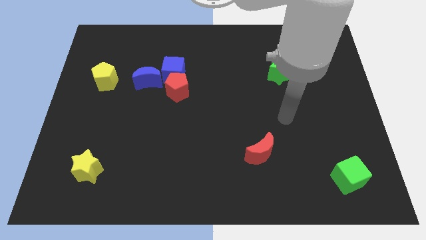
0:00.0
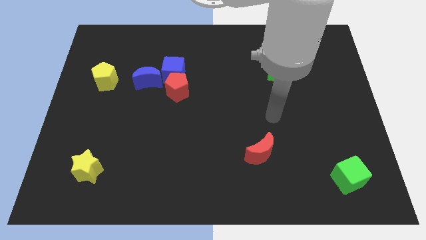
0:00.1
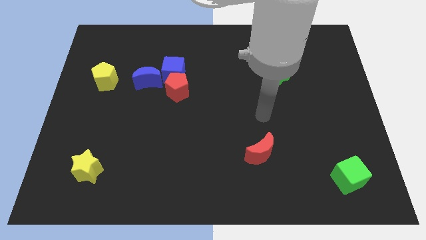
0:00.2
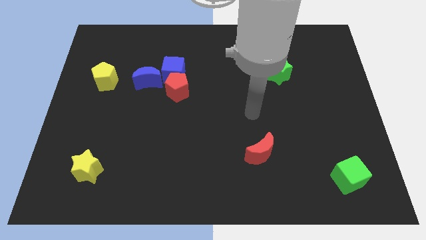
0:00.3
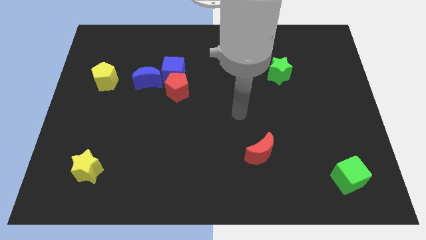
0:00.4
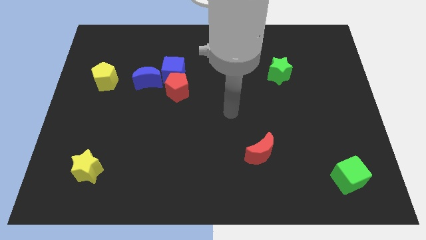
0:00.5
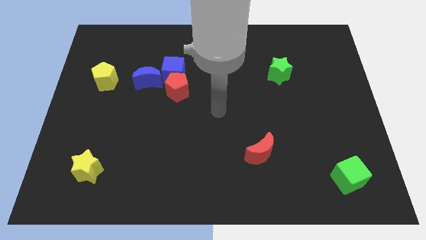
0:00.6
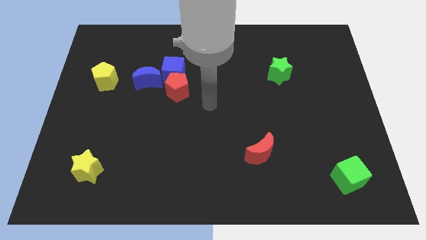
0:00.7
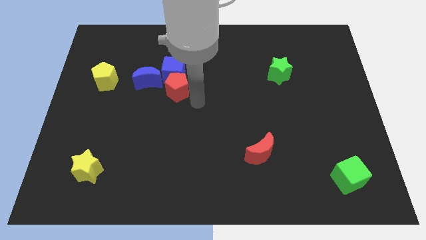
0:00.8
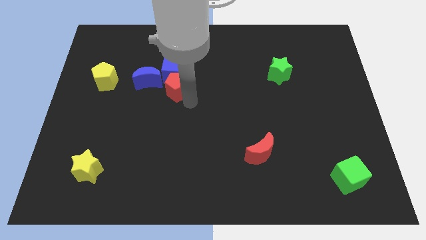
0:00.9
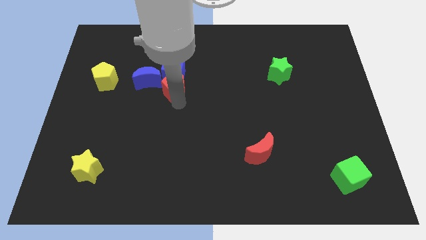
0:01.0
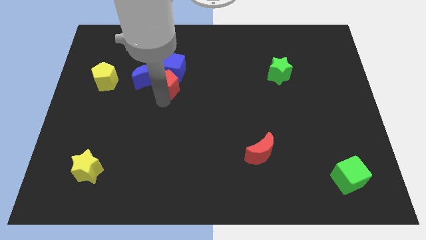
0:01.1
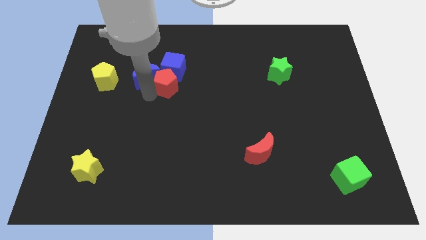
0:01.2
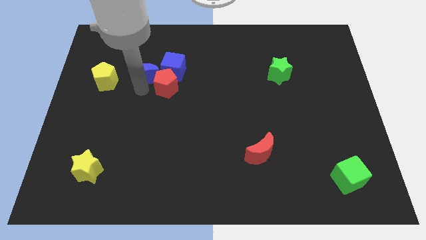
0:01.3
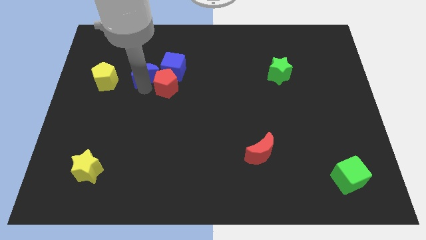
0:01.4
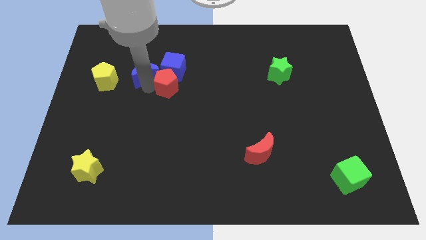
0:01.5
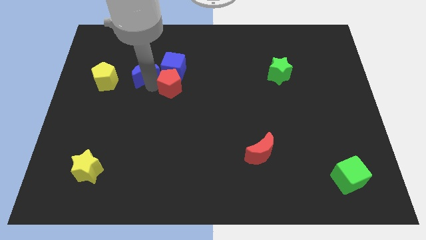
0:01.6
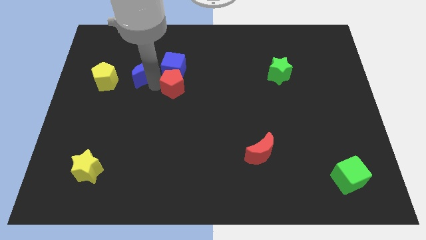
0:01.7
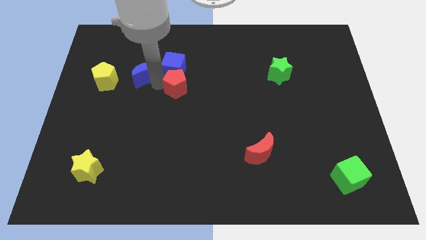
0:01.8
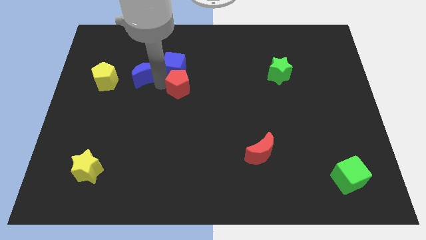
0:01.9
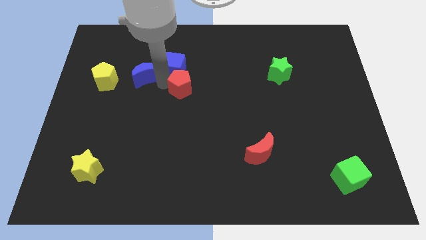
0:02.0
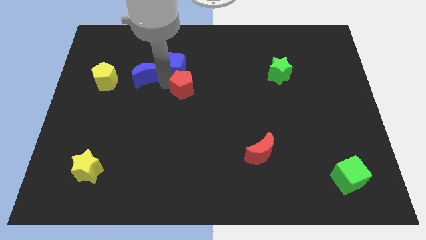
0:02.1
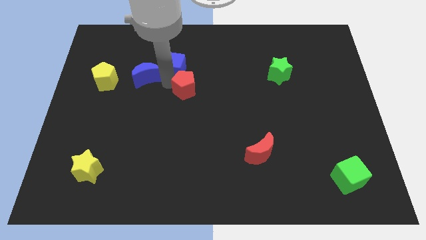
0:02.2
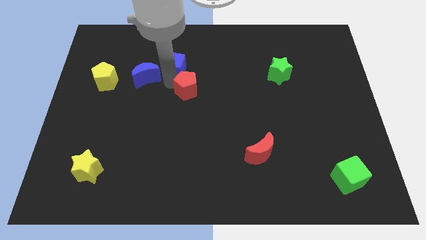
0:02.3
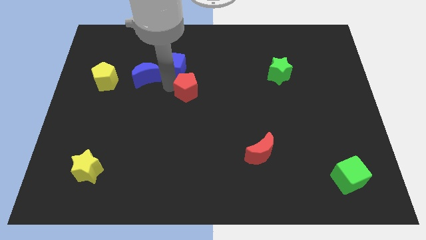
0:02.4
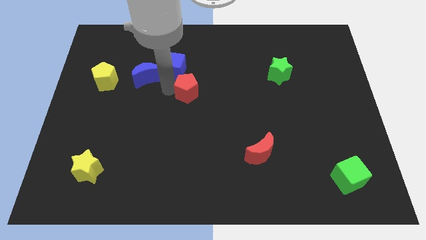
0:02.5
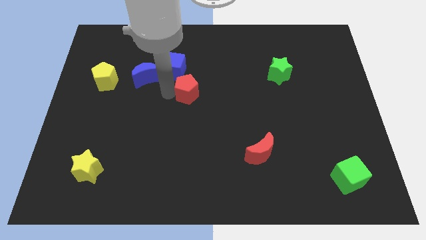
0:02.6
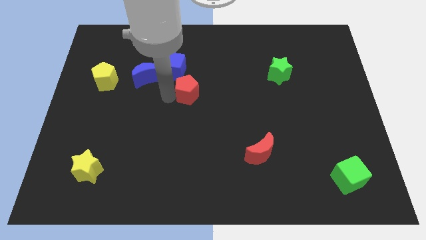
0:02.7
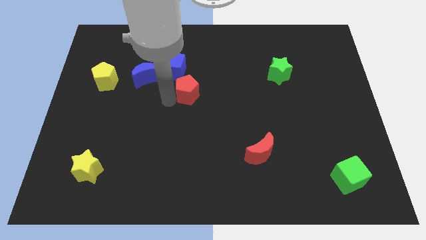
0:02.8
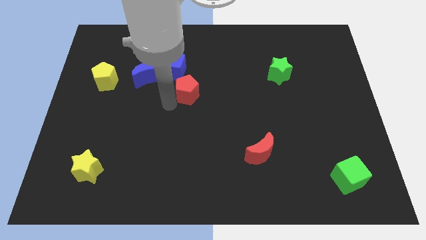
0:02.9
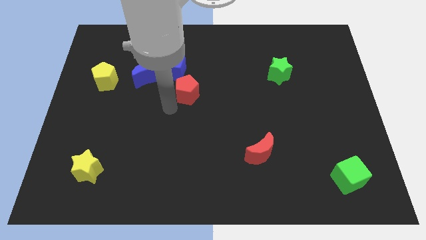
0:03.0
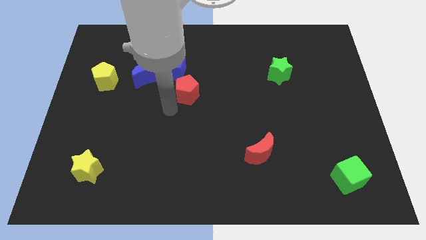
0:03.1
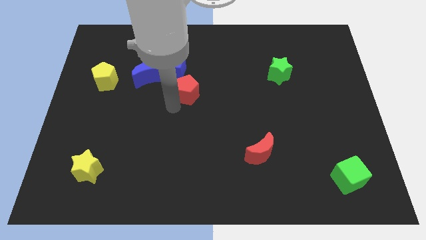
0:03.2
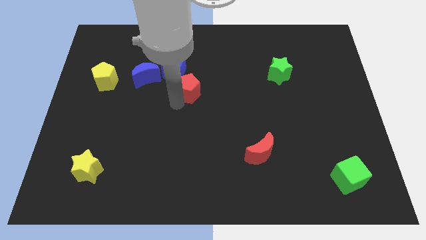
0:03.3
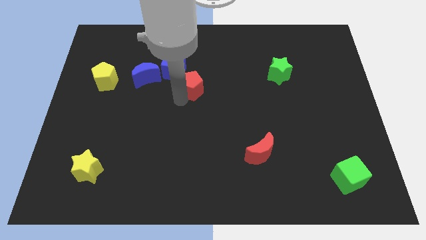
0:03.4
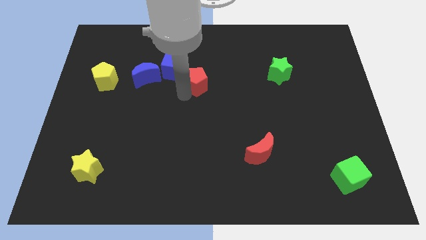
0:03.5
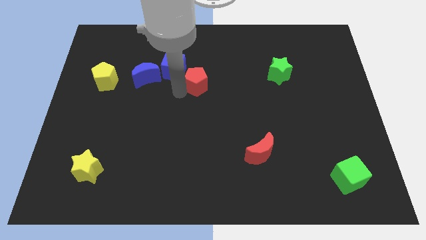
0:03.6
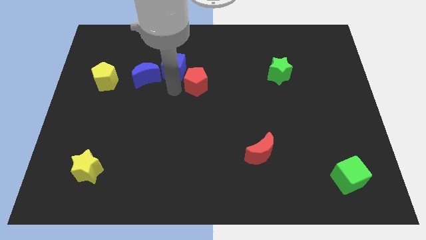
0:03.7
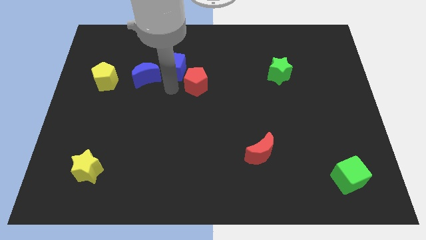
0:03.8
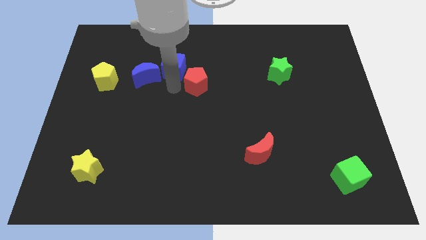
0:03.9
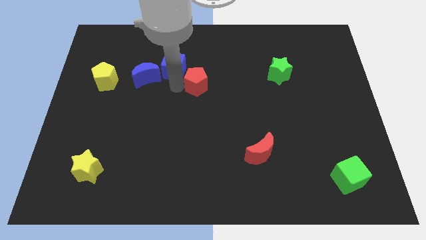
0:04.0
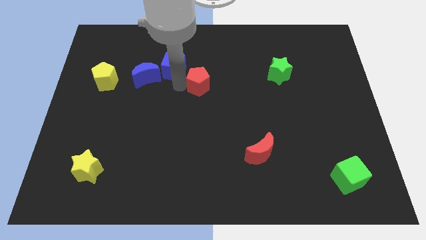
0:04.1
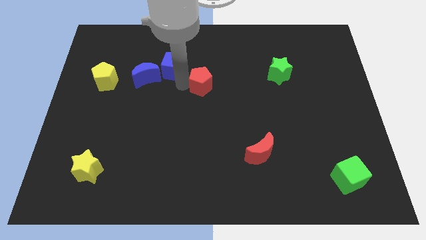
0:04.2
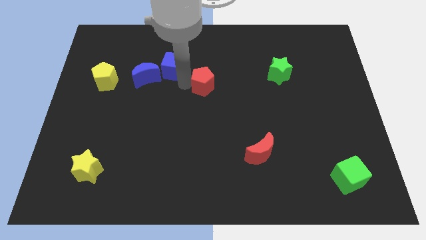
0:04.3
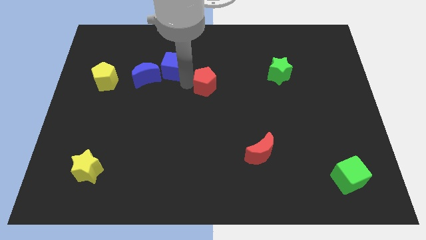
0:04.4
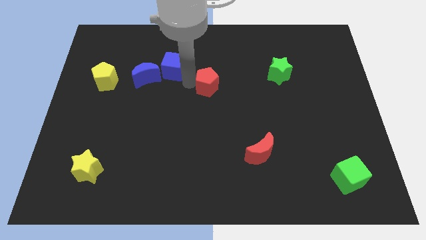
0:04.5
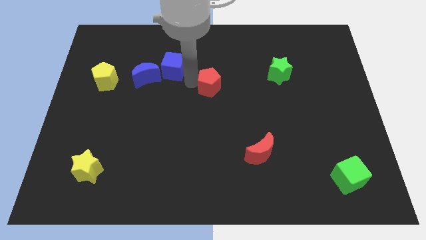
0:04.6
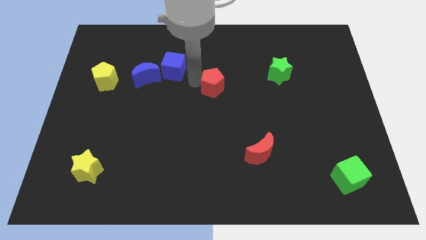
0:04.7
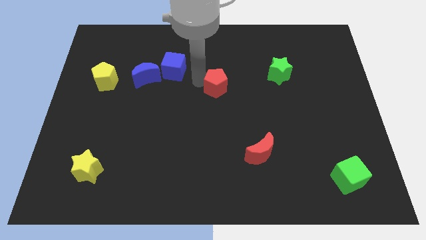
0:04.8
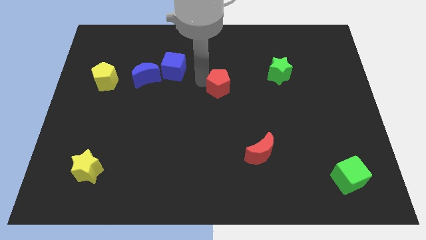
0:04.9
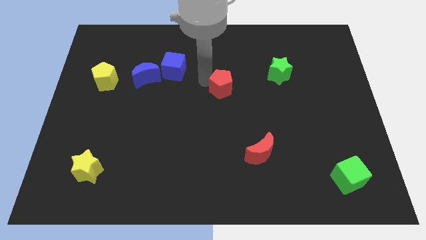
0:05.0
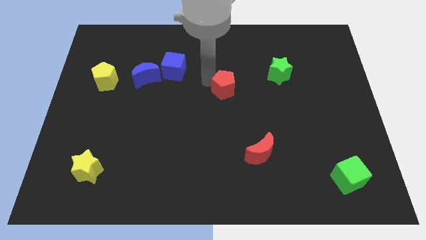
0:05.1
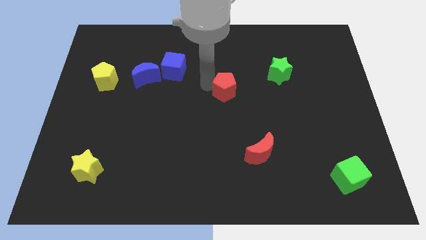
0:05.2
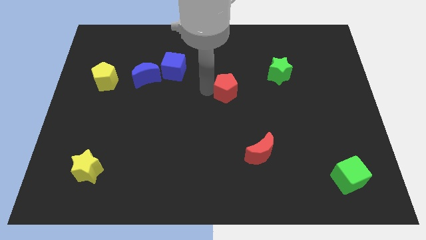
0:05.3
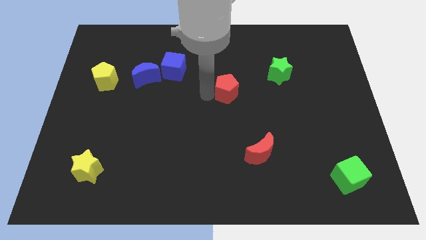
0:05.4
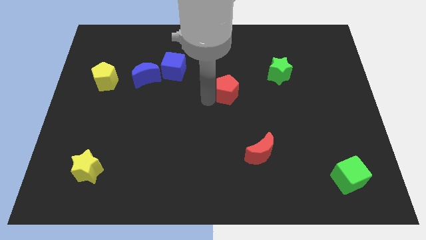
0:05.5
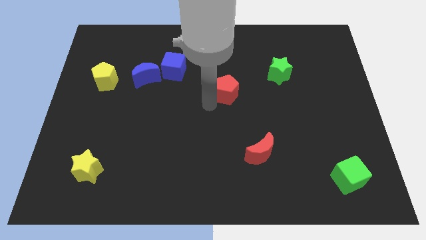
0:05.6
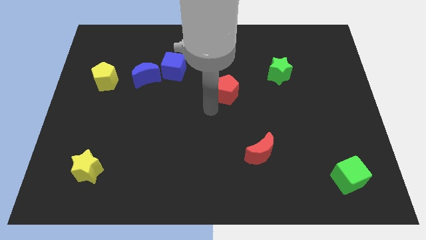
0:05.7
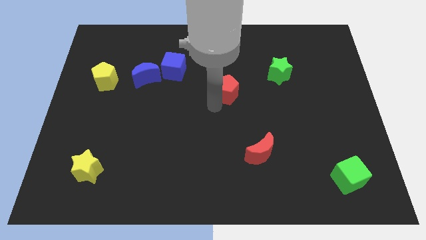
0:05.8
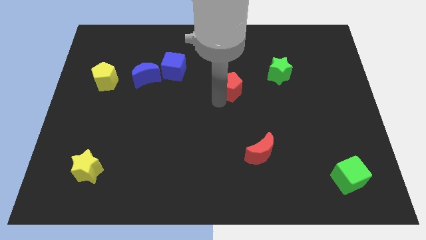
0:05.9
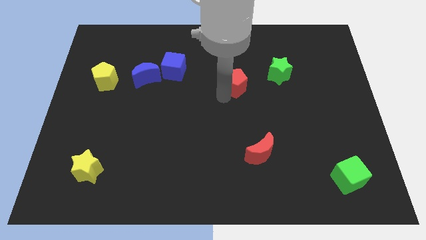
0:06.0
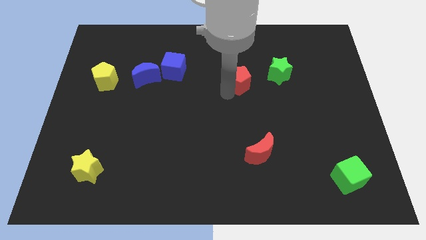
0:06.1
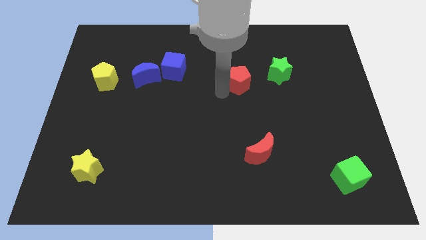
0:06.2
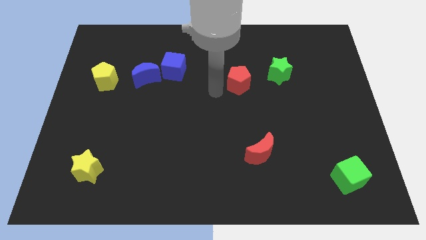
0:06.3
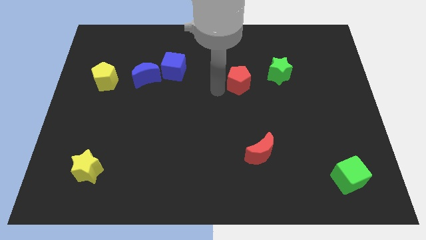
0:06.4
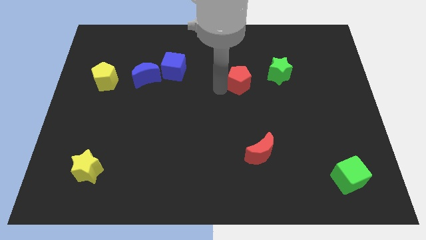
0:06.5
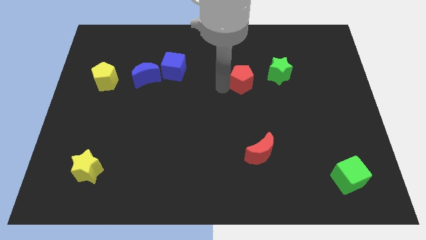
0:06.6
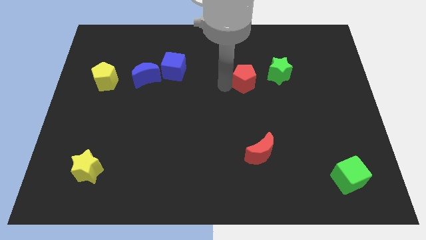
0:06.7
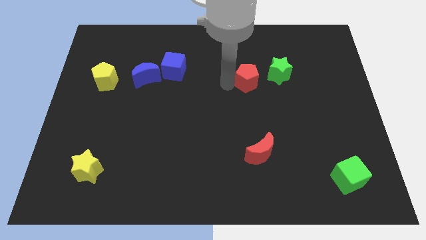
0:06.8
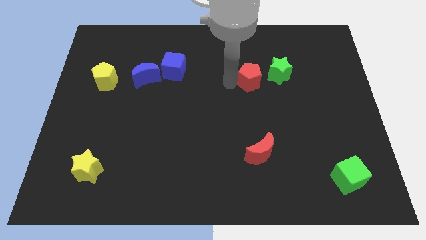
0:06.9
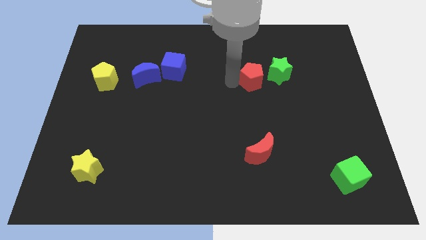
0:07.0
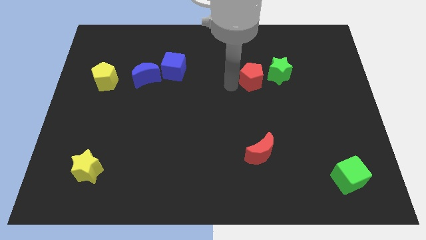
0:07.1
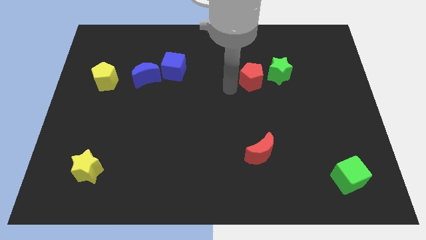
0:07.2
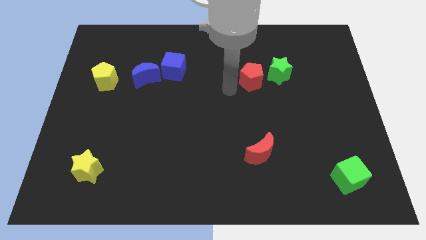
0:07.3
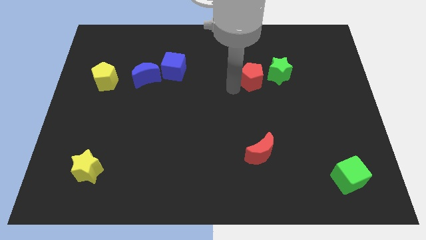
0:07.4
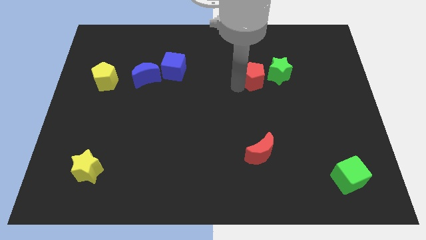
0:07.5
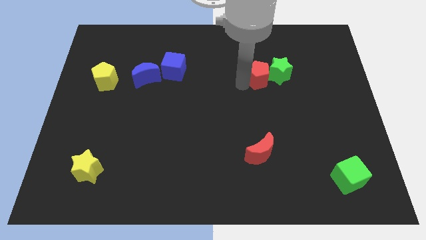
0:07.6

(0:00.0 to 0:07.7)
slide the red pentagon to the green star
